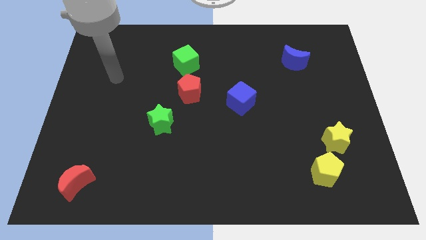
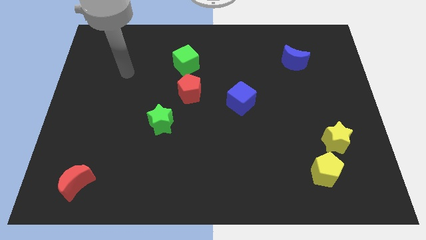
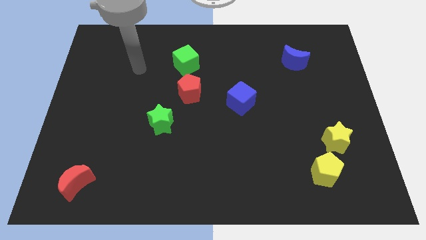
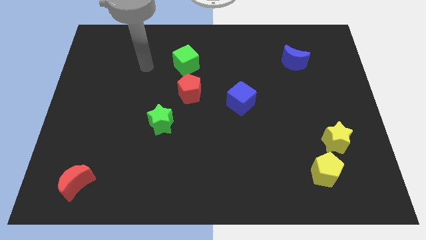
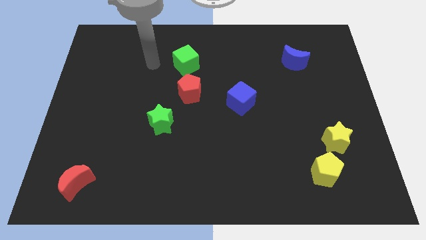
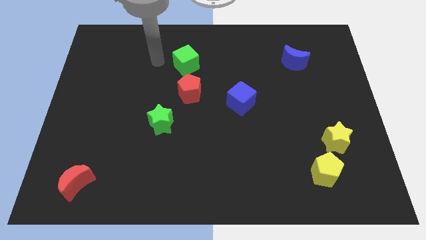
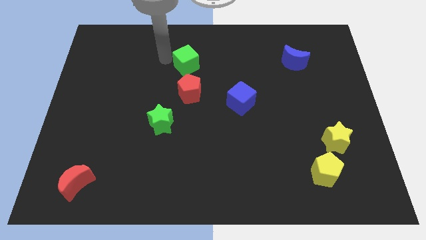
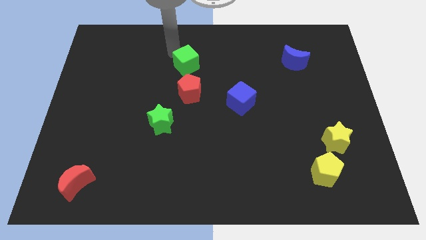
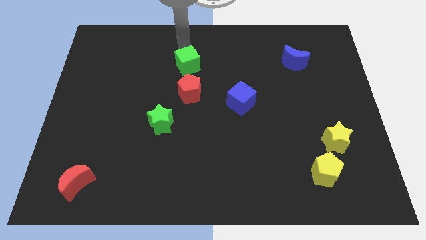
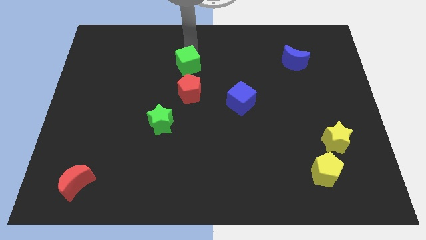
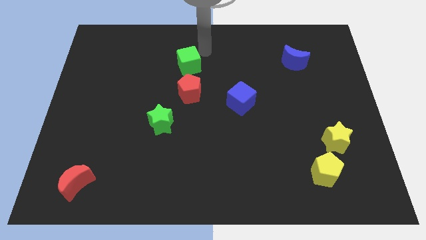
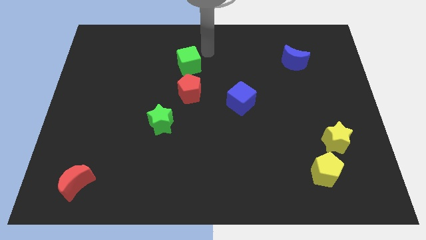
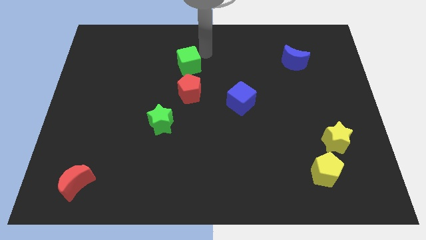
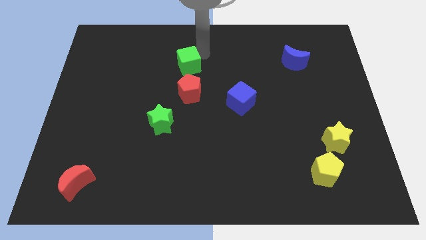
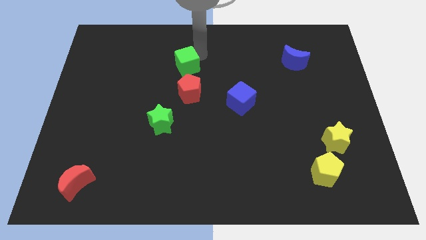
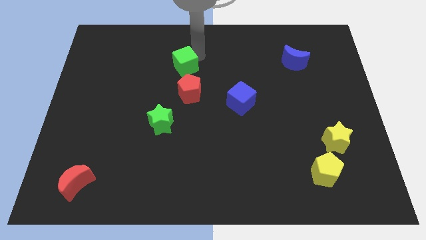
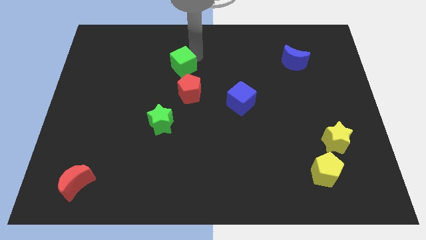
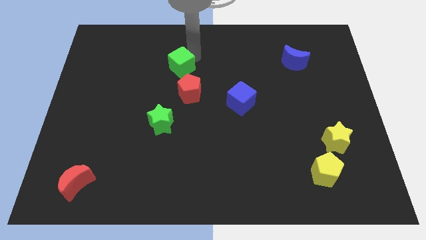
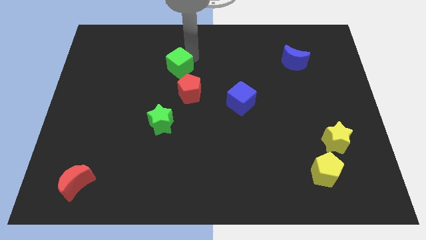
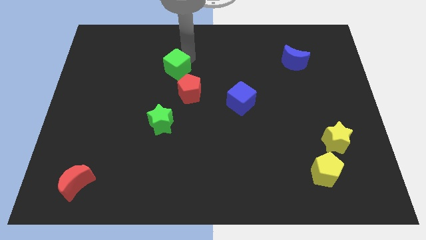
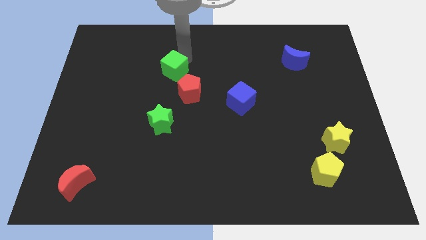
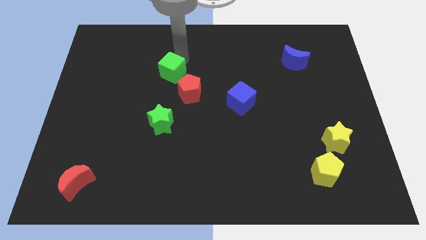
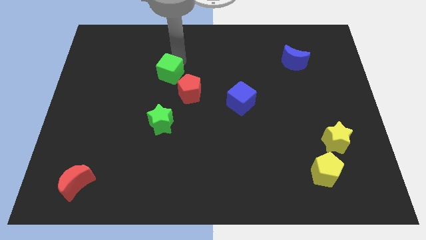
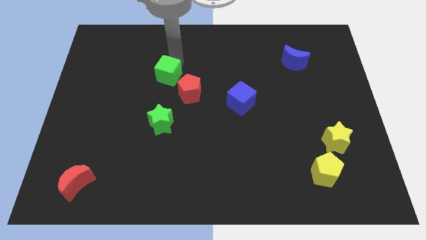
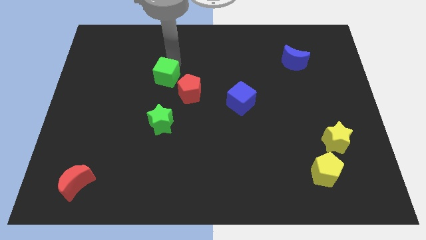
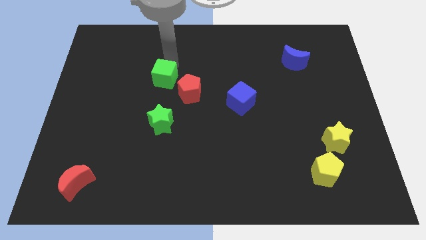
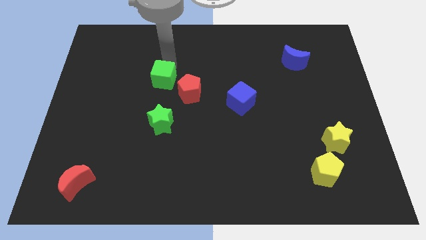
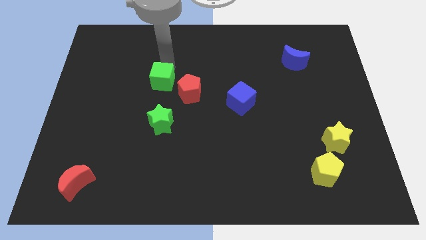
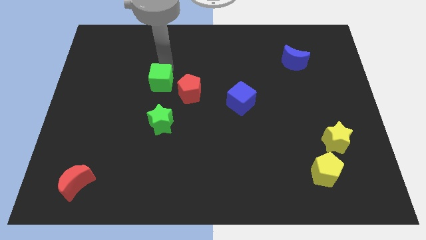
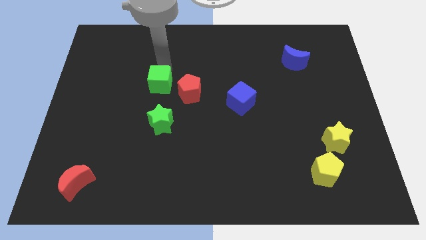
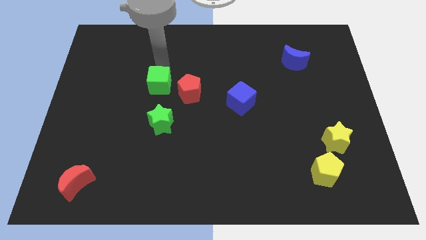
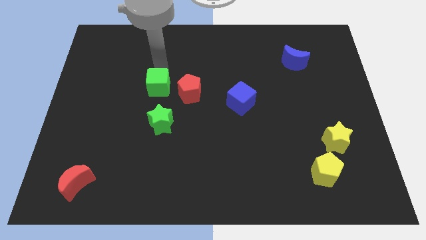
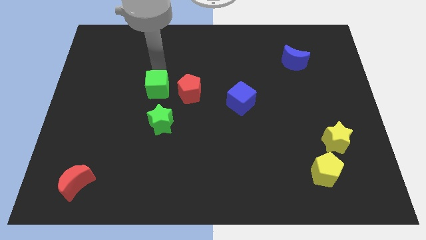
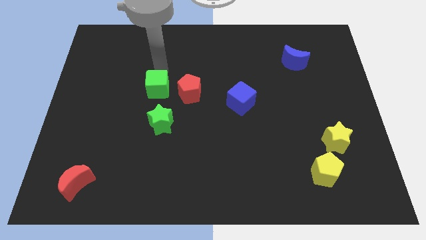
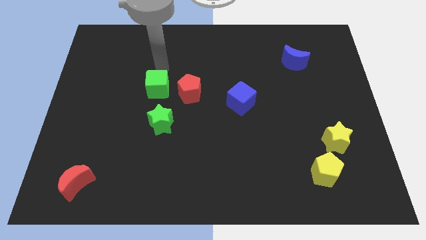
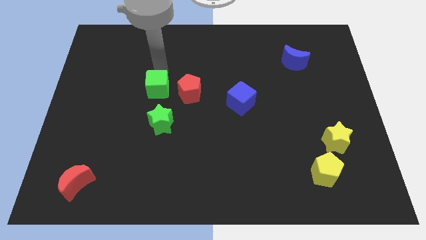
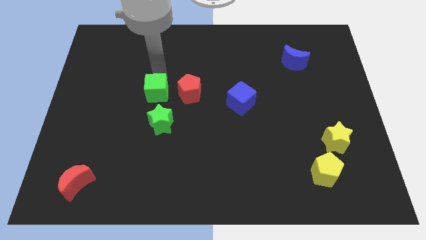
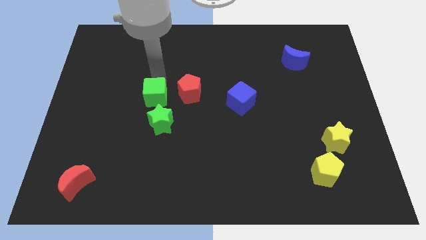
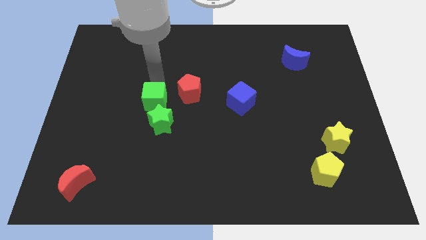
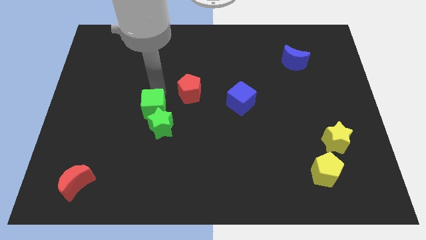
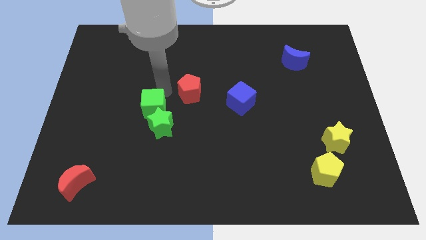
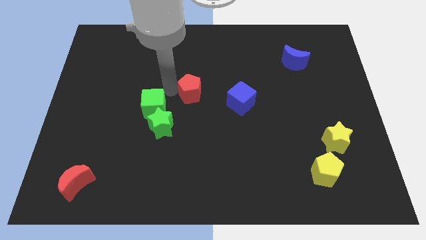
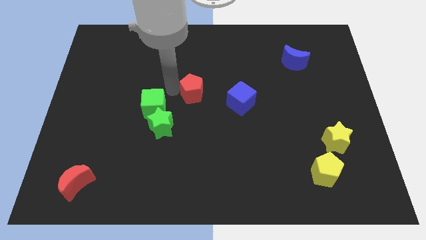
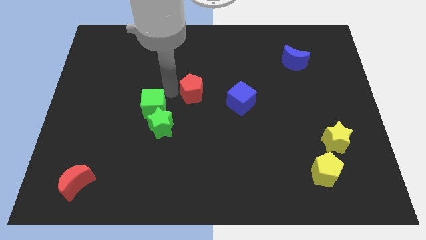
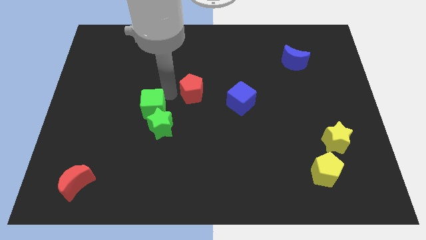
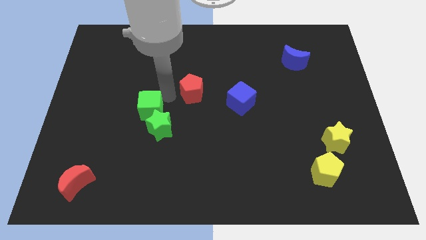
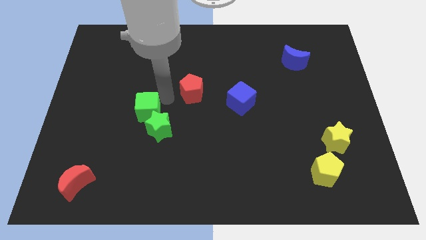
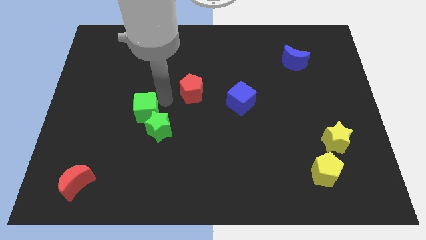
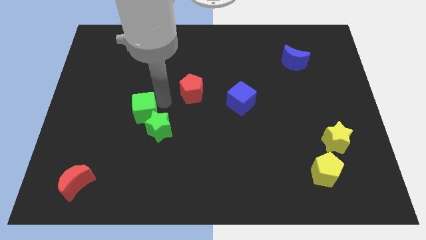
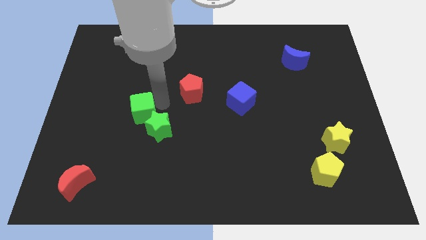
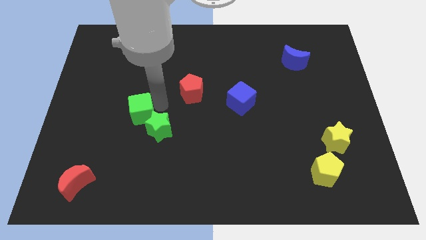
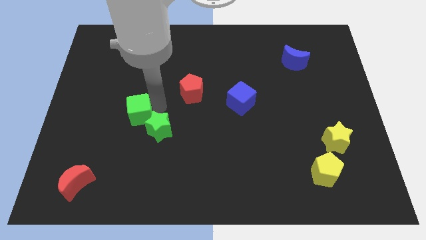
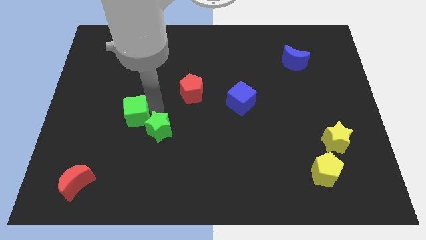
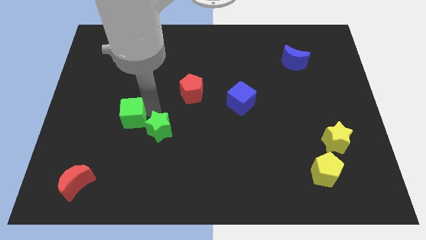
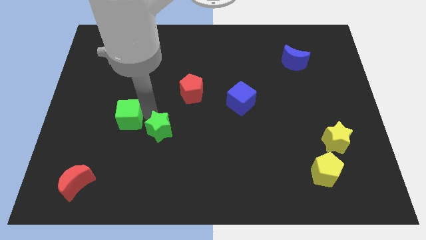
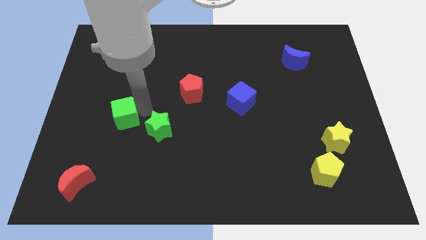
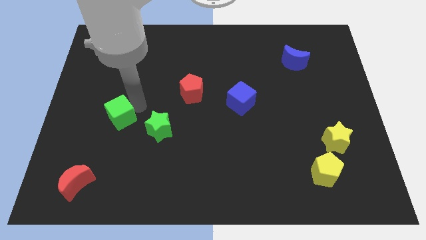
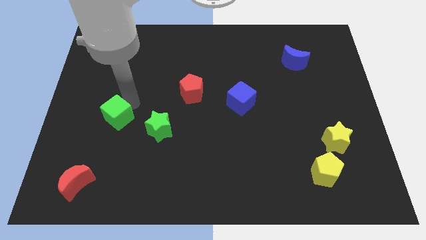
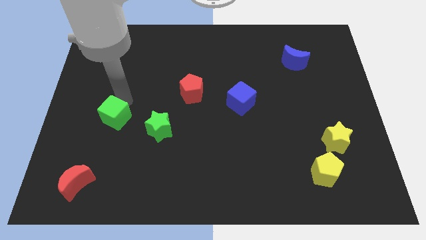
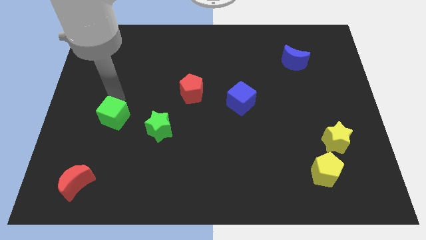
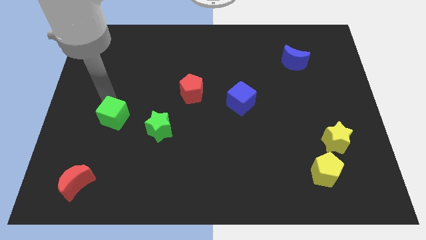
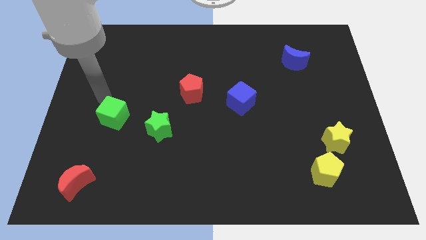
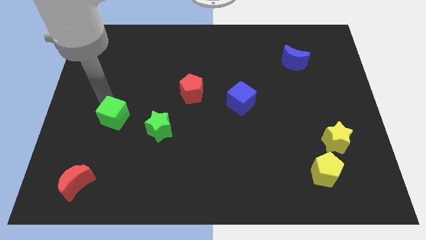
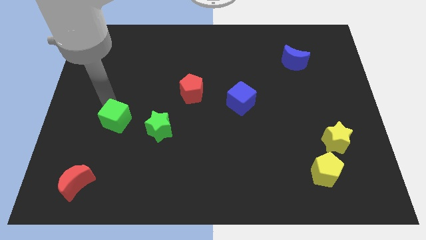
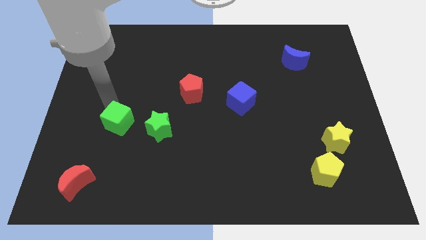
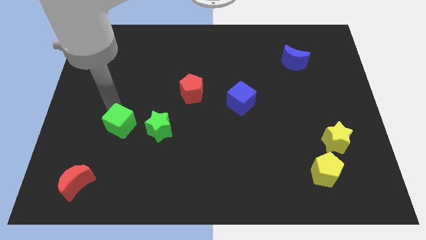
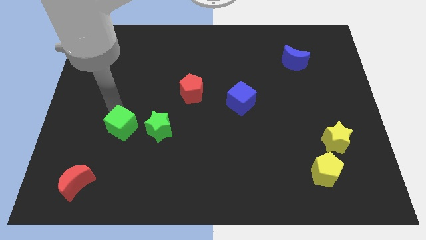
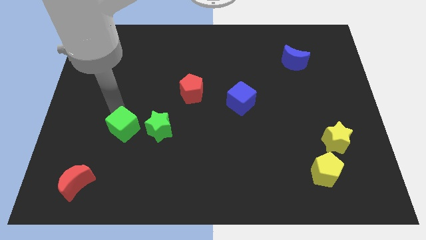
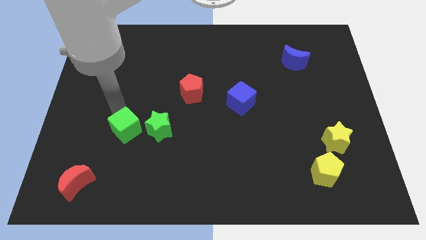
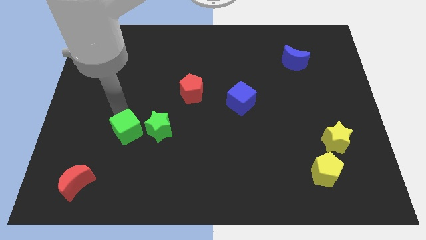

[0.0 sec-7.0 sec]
push the green cube diagonally down and to the left of the green star

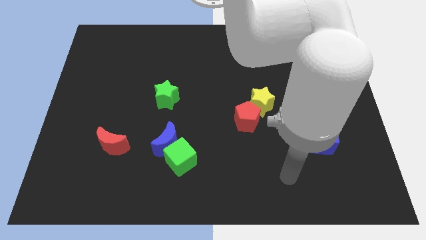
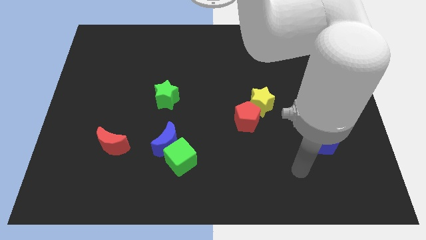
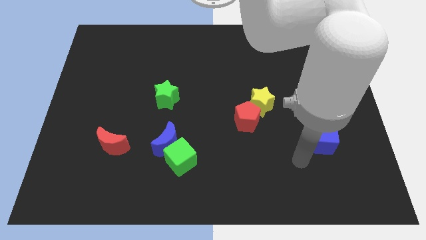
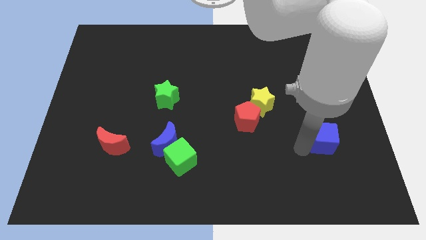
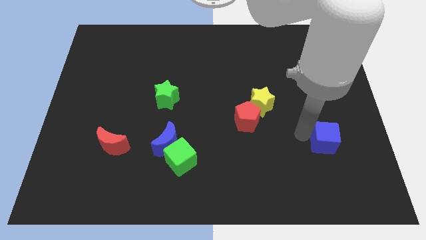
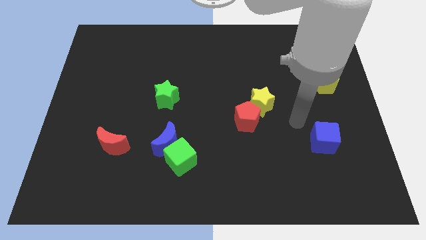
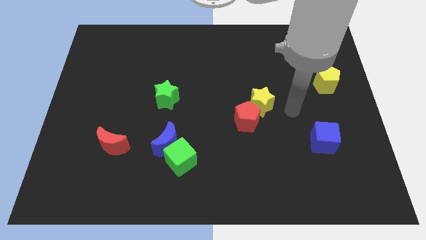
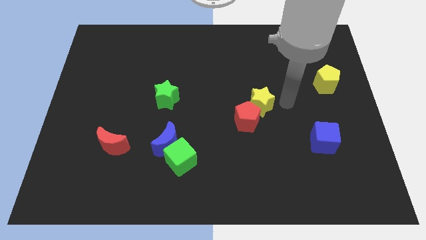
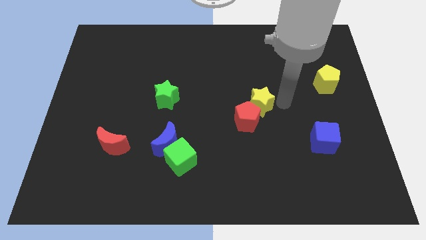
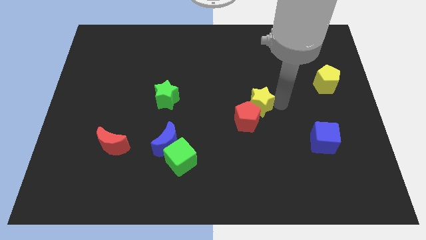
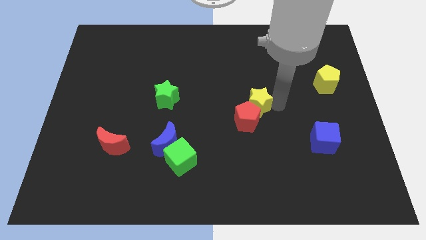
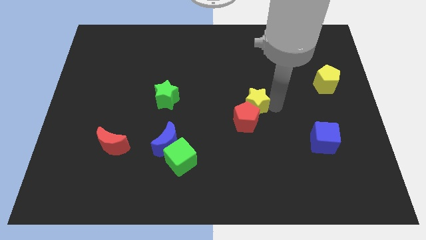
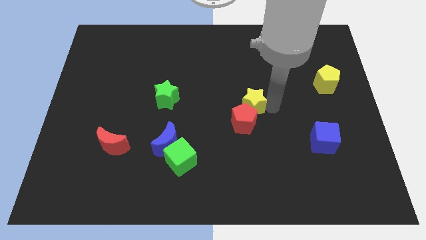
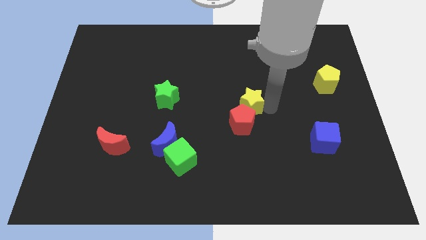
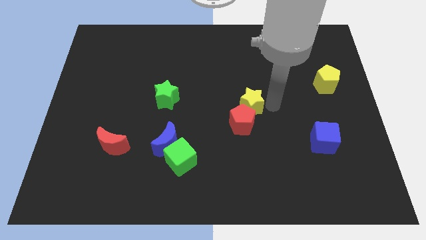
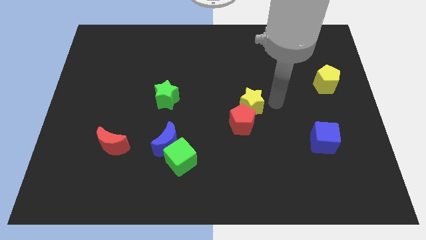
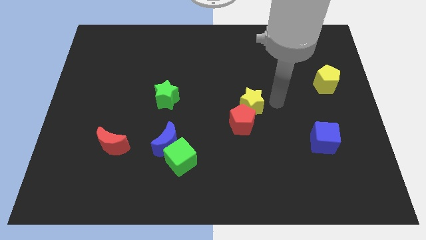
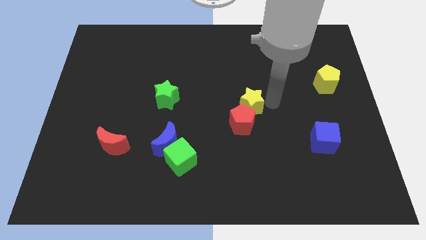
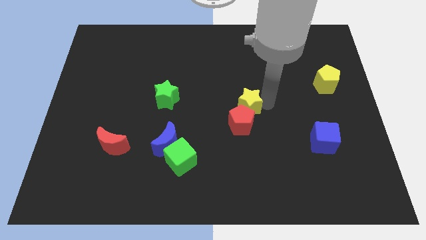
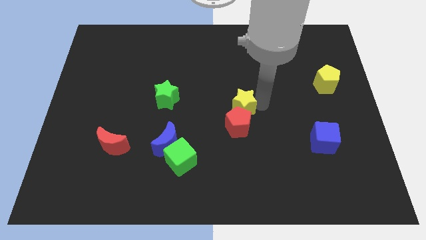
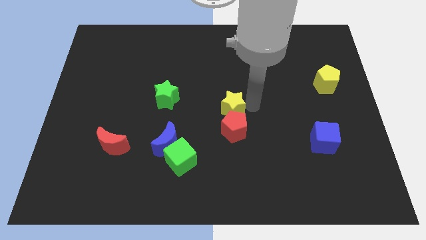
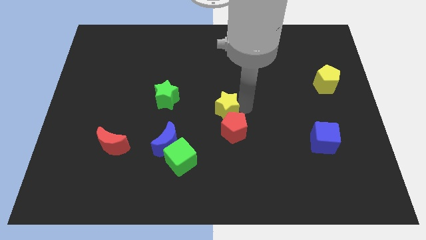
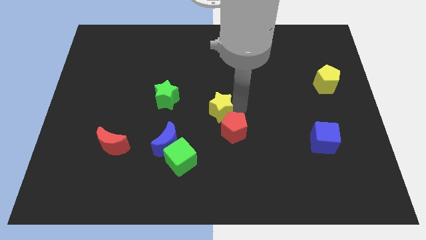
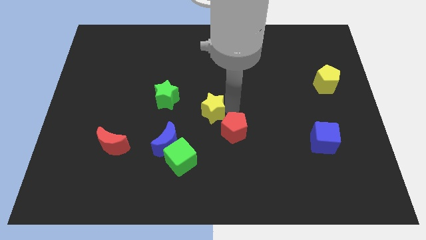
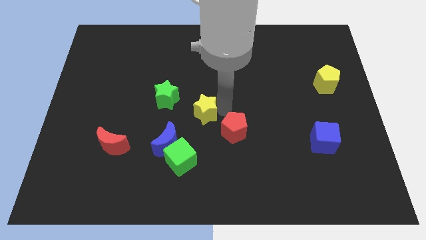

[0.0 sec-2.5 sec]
move the yellow star to the bottom right side of the green star
